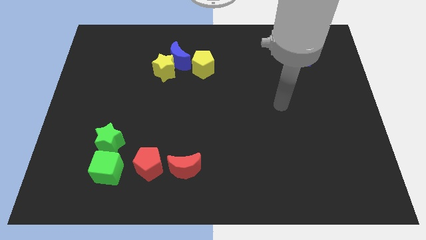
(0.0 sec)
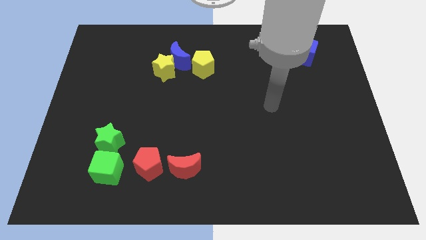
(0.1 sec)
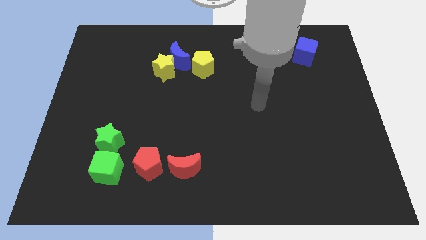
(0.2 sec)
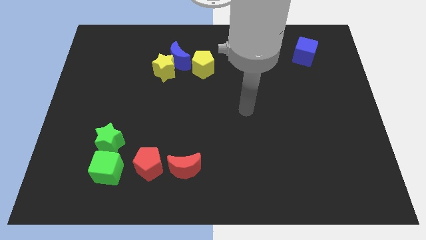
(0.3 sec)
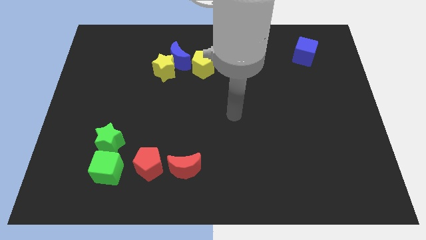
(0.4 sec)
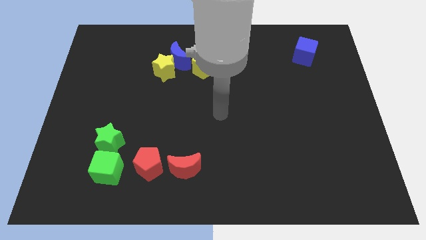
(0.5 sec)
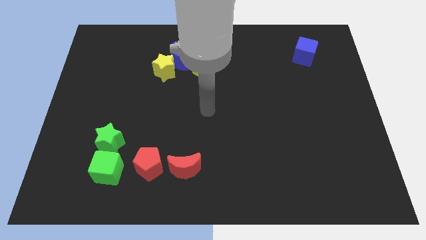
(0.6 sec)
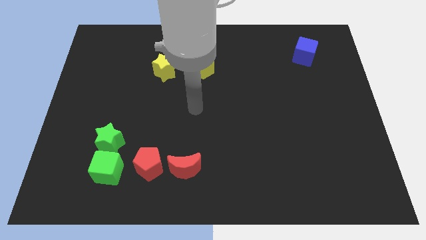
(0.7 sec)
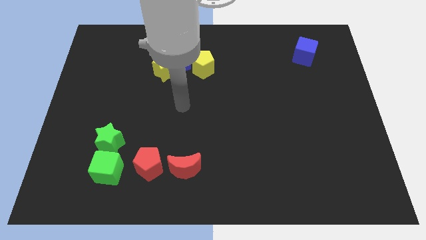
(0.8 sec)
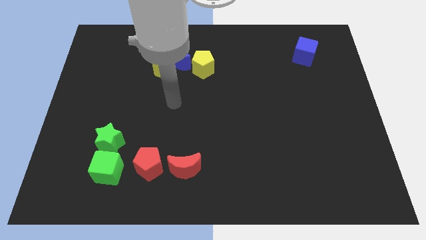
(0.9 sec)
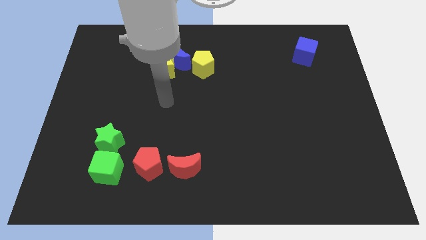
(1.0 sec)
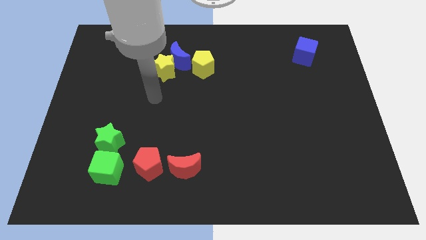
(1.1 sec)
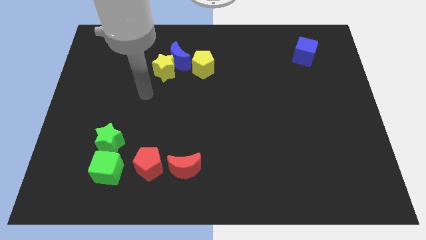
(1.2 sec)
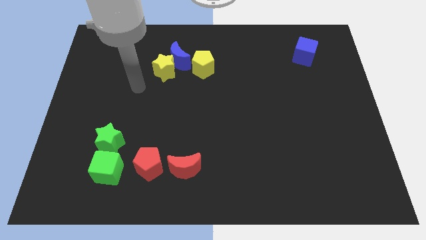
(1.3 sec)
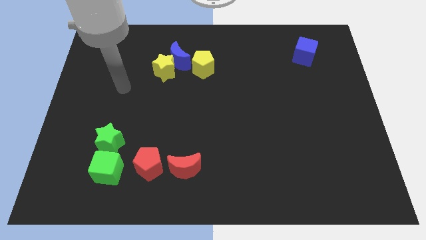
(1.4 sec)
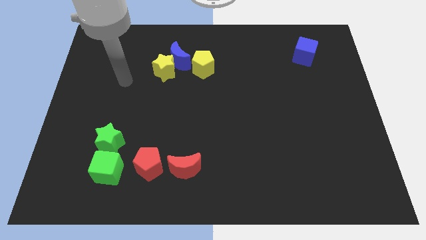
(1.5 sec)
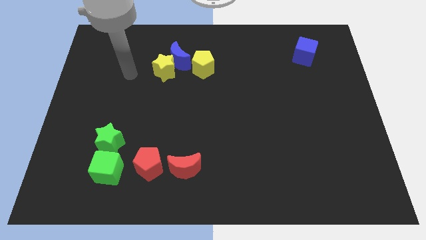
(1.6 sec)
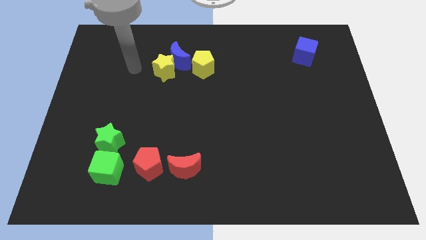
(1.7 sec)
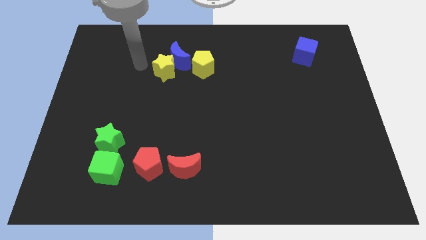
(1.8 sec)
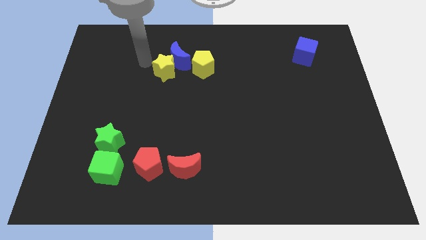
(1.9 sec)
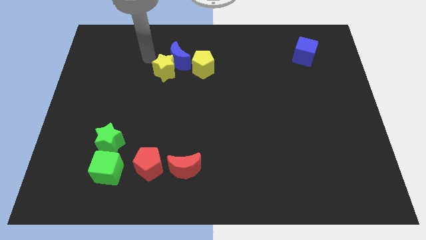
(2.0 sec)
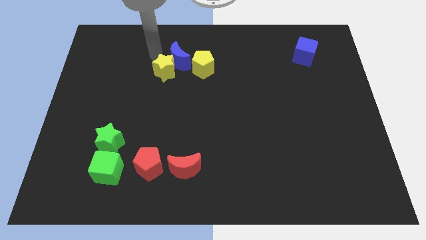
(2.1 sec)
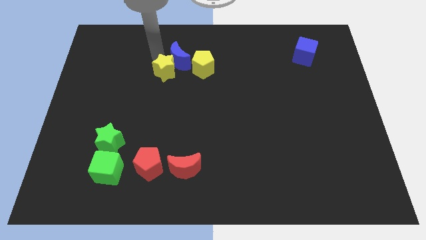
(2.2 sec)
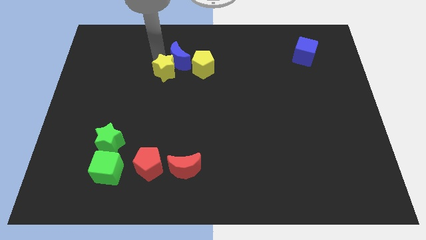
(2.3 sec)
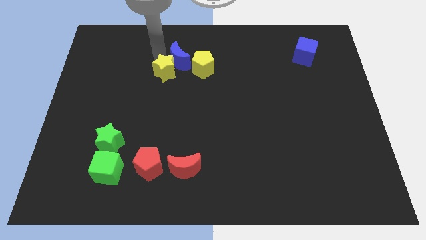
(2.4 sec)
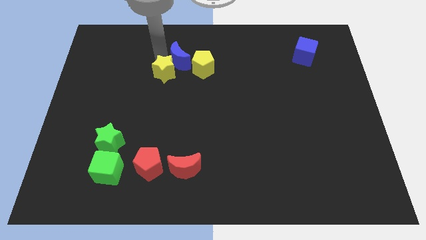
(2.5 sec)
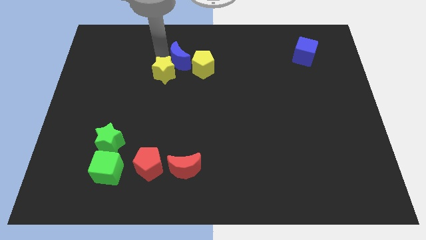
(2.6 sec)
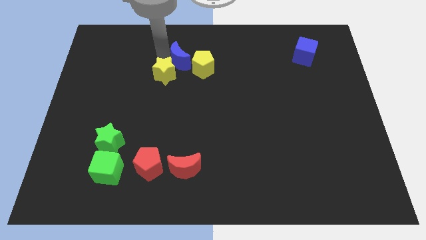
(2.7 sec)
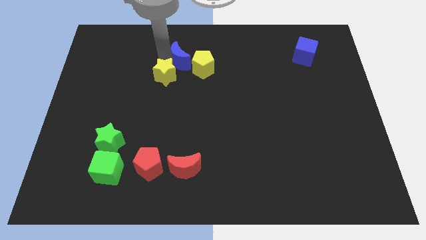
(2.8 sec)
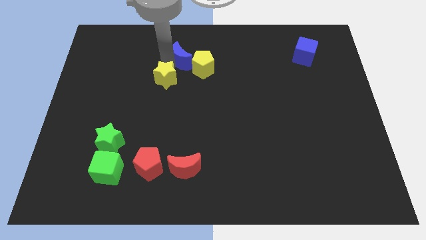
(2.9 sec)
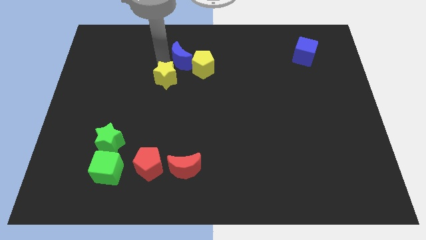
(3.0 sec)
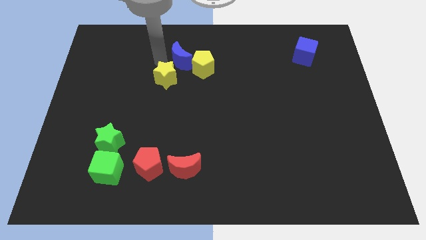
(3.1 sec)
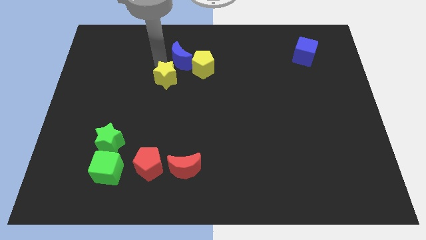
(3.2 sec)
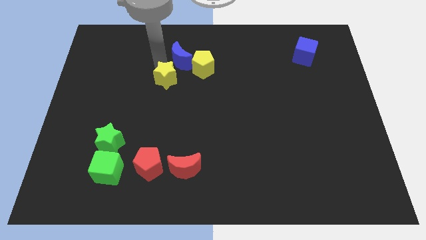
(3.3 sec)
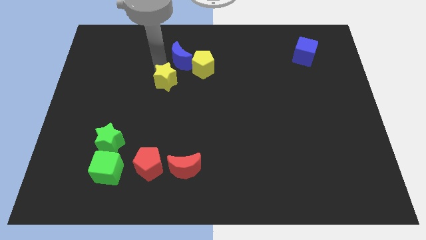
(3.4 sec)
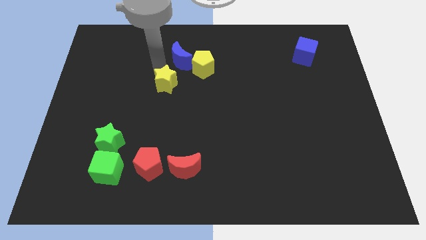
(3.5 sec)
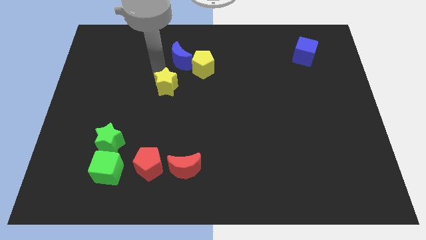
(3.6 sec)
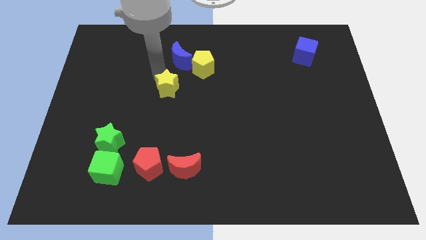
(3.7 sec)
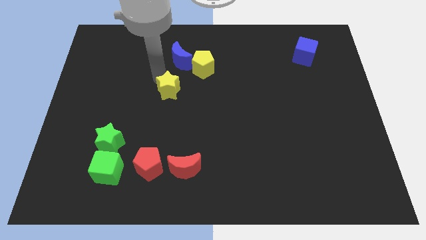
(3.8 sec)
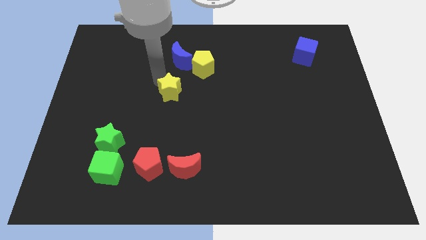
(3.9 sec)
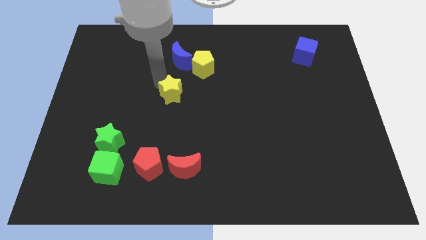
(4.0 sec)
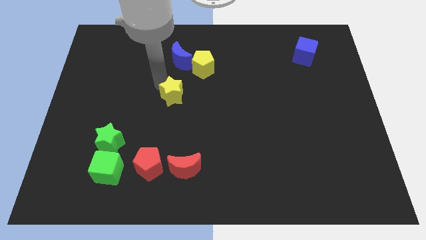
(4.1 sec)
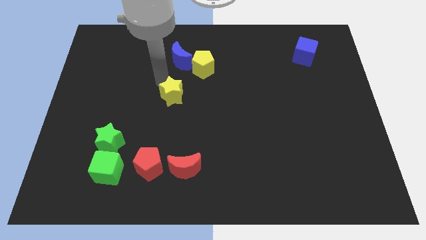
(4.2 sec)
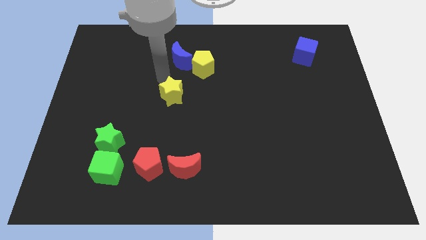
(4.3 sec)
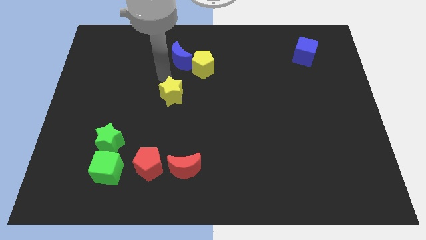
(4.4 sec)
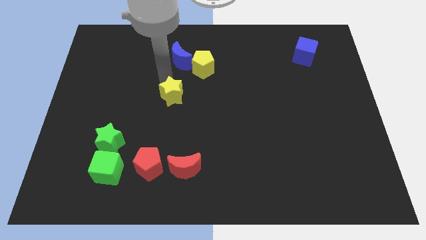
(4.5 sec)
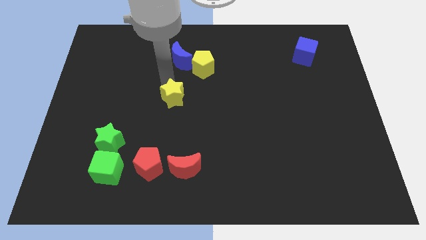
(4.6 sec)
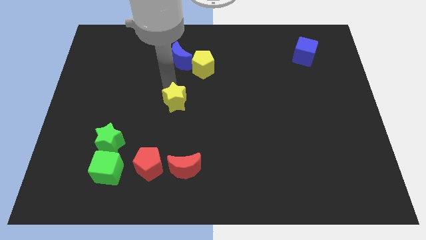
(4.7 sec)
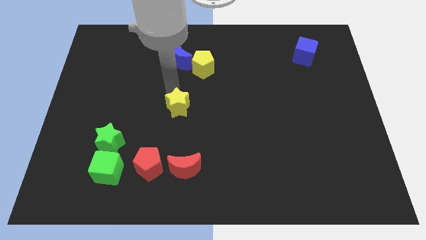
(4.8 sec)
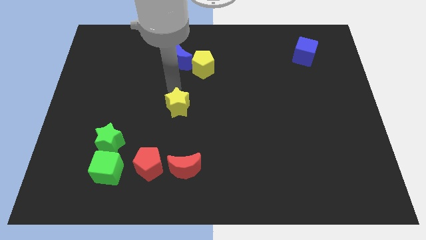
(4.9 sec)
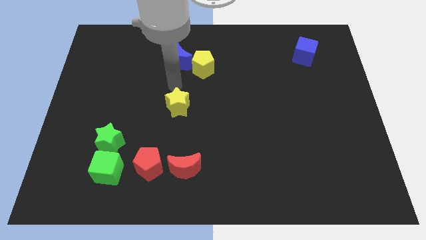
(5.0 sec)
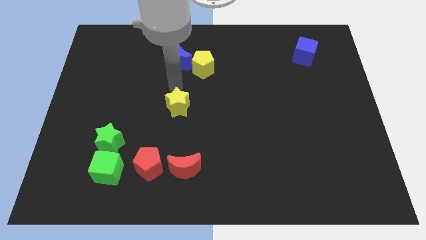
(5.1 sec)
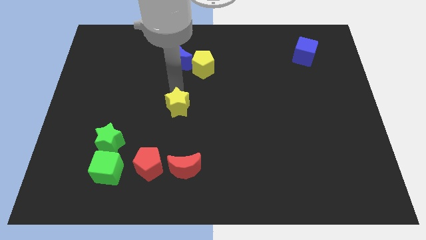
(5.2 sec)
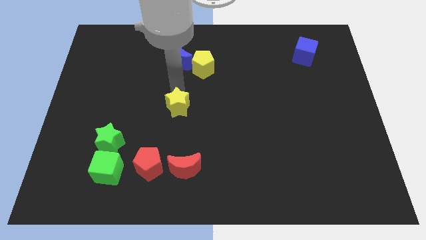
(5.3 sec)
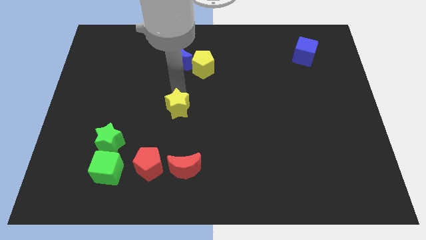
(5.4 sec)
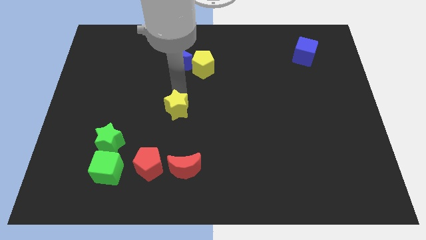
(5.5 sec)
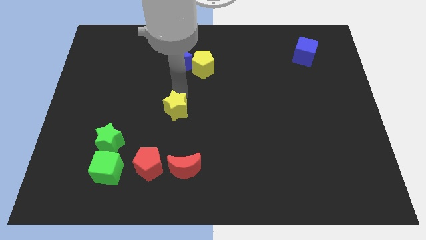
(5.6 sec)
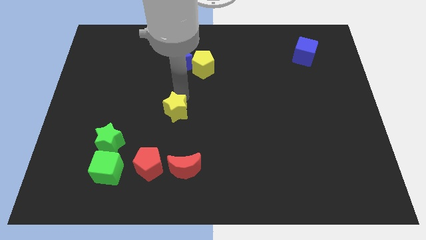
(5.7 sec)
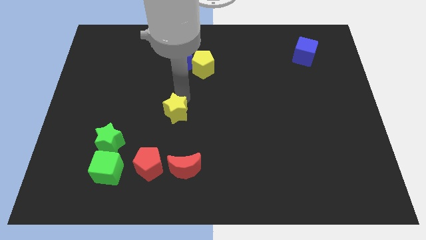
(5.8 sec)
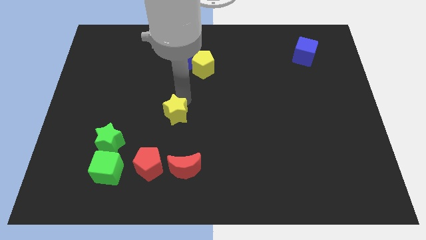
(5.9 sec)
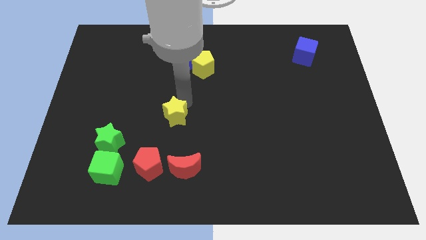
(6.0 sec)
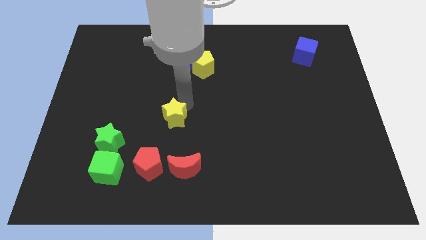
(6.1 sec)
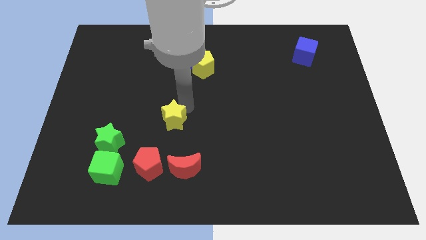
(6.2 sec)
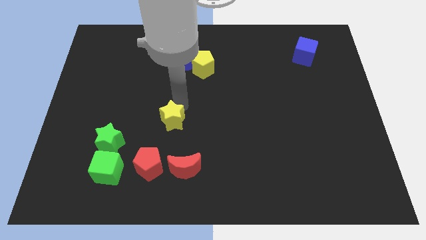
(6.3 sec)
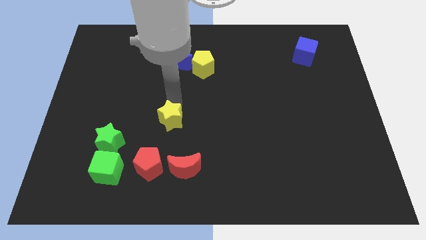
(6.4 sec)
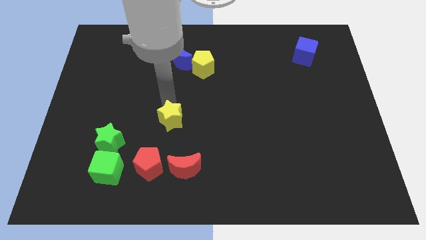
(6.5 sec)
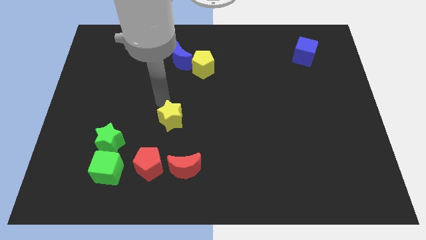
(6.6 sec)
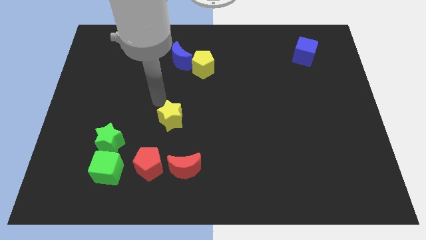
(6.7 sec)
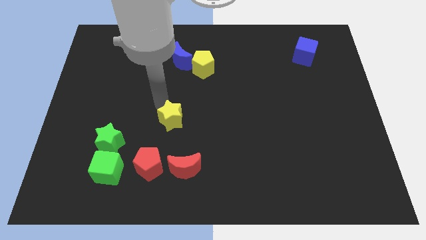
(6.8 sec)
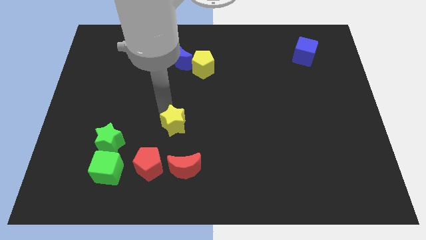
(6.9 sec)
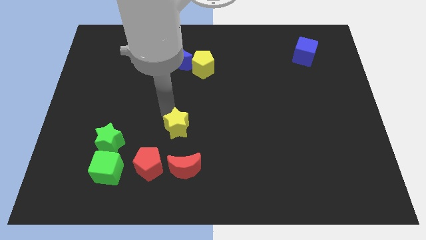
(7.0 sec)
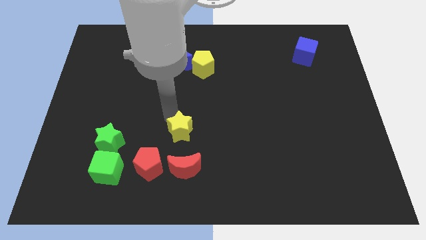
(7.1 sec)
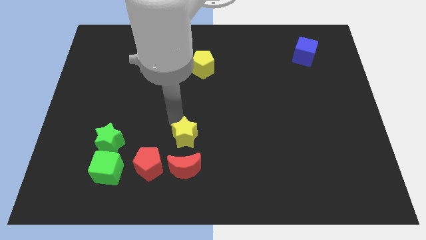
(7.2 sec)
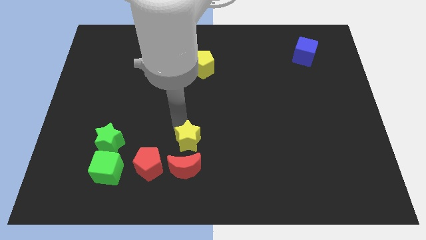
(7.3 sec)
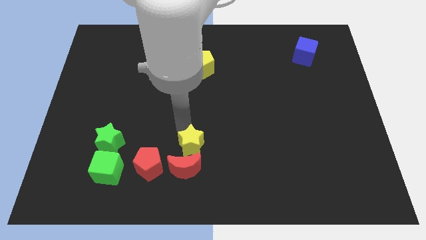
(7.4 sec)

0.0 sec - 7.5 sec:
put the yellow star to the red moon
